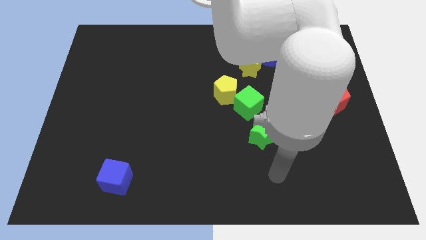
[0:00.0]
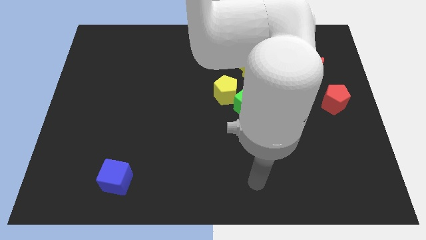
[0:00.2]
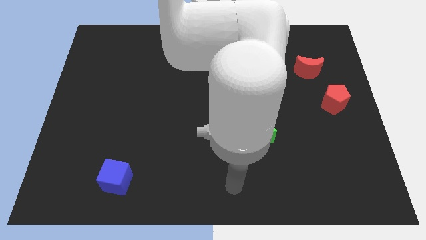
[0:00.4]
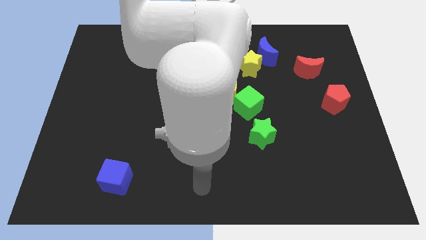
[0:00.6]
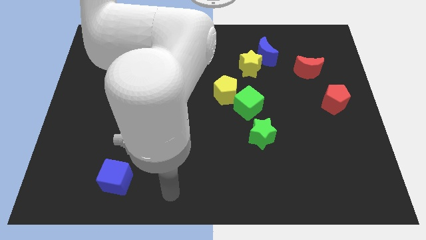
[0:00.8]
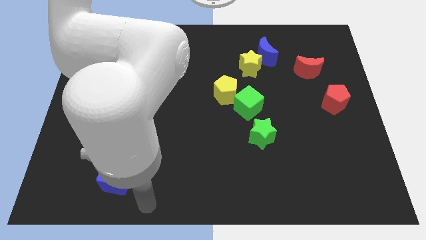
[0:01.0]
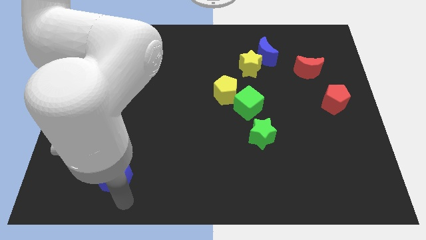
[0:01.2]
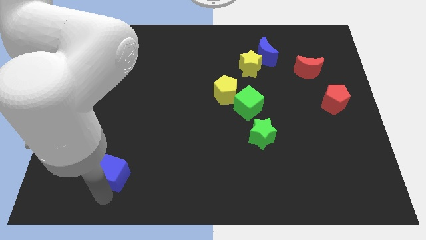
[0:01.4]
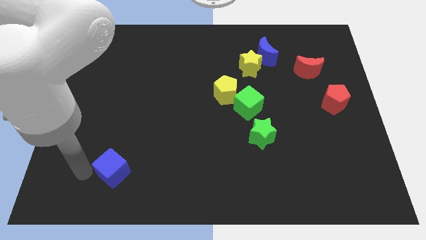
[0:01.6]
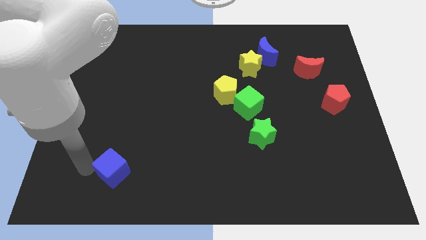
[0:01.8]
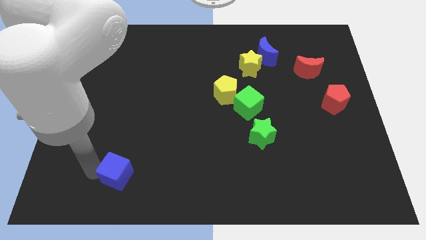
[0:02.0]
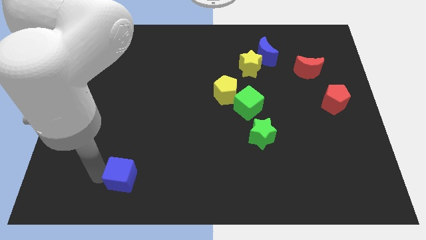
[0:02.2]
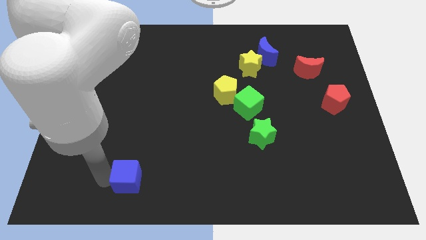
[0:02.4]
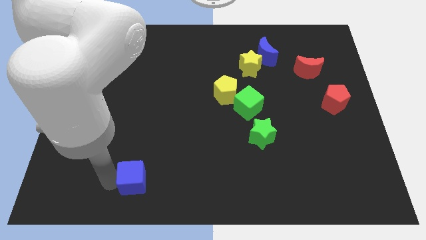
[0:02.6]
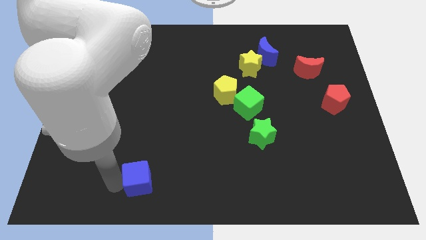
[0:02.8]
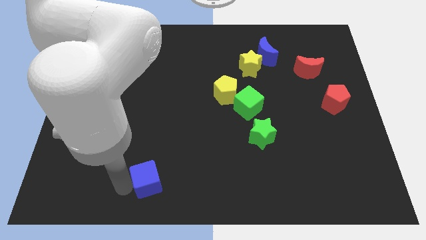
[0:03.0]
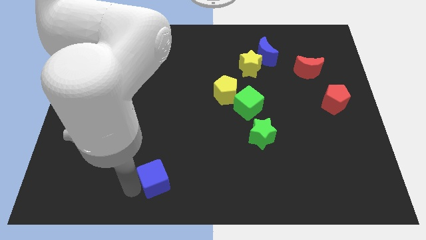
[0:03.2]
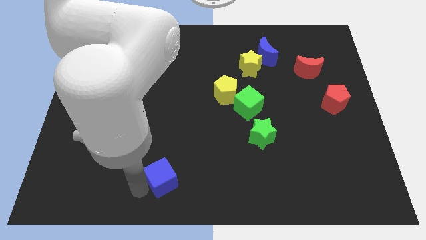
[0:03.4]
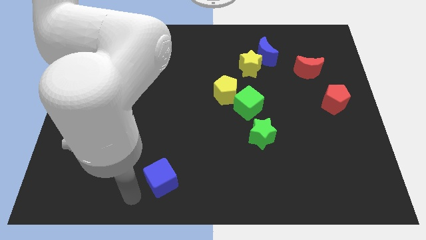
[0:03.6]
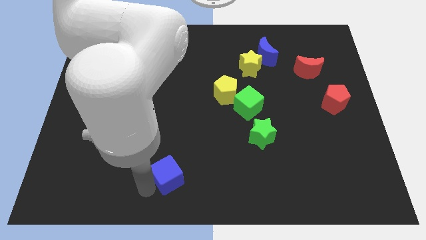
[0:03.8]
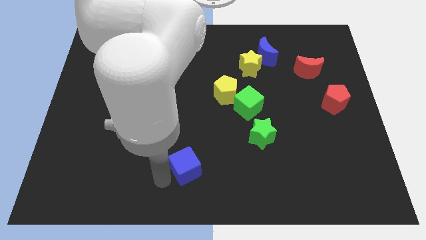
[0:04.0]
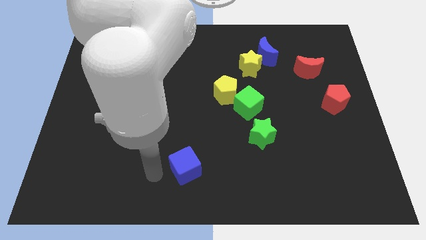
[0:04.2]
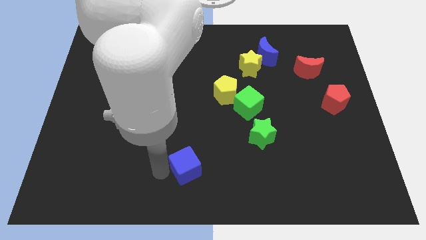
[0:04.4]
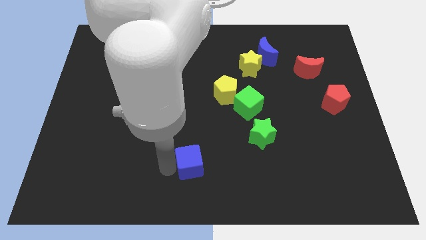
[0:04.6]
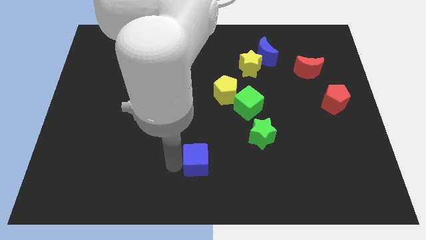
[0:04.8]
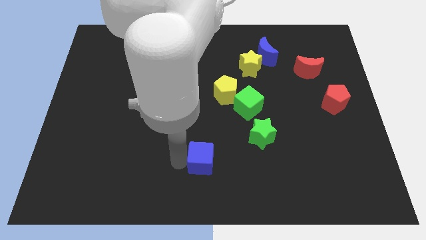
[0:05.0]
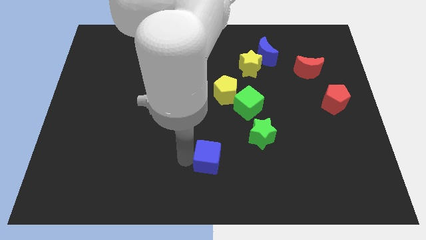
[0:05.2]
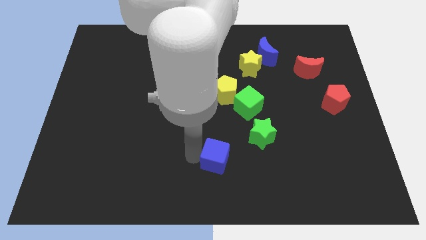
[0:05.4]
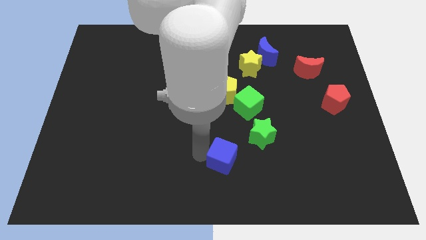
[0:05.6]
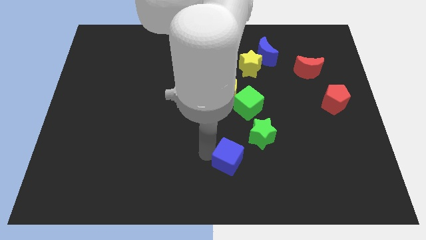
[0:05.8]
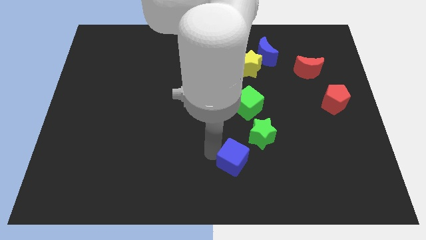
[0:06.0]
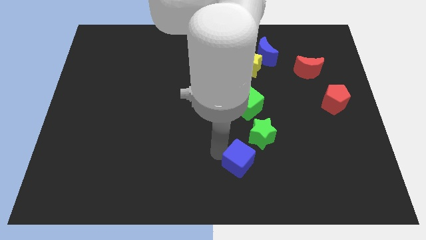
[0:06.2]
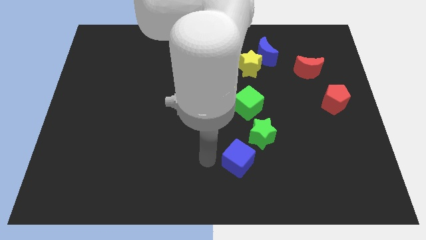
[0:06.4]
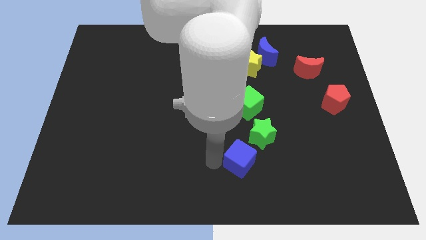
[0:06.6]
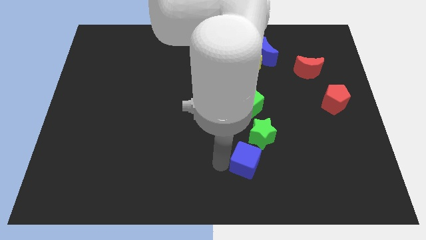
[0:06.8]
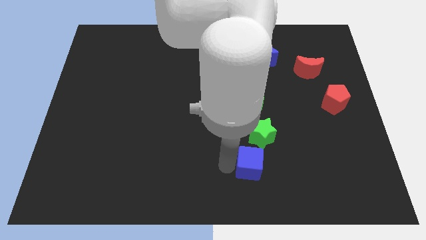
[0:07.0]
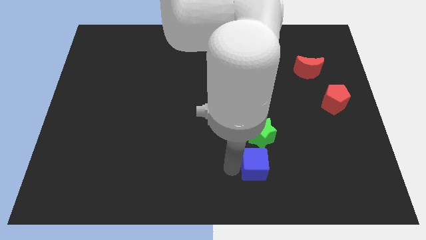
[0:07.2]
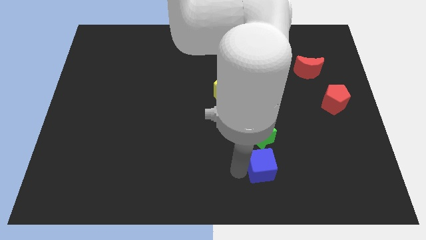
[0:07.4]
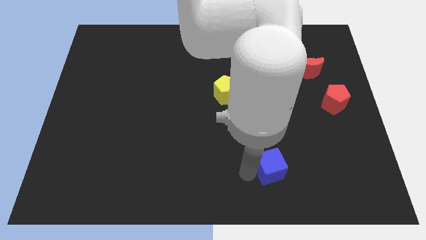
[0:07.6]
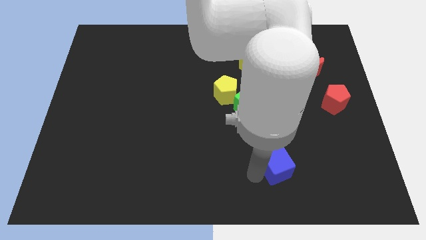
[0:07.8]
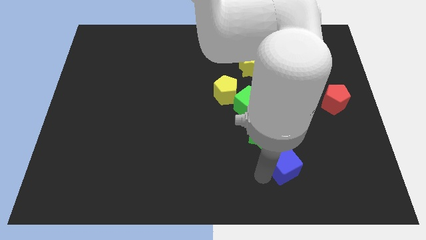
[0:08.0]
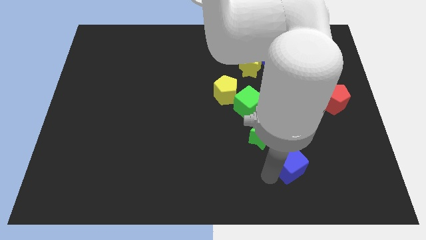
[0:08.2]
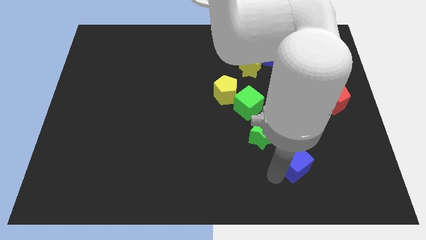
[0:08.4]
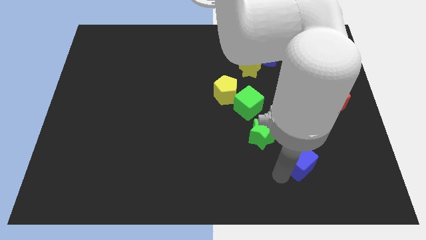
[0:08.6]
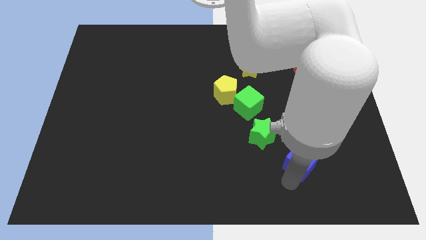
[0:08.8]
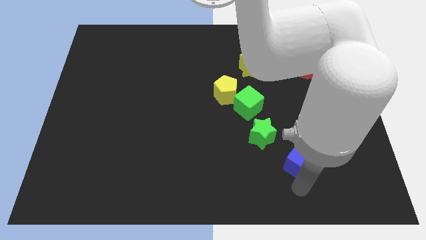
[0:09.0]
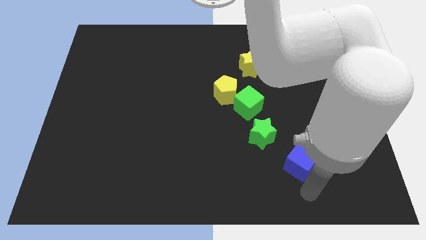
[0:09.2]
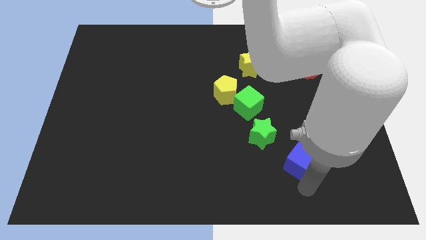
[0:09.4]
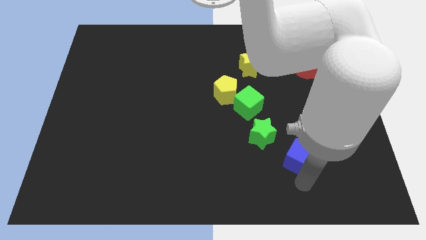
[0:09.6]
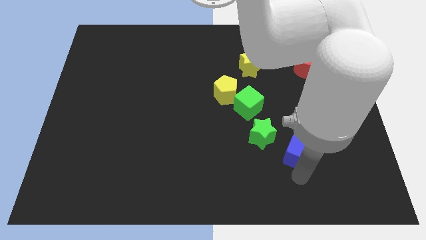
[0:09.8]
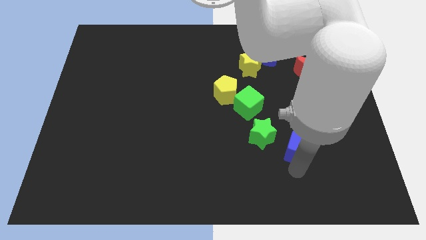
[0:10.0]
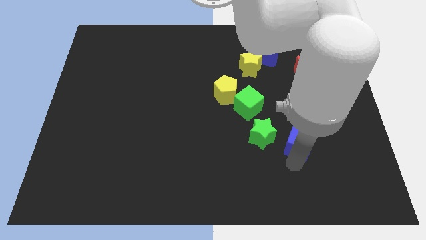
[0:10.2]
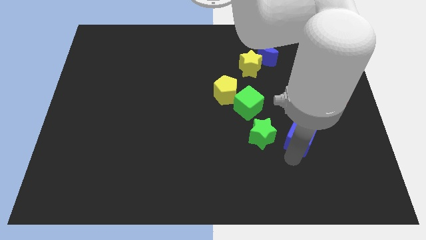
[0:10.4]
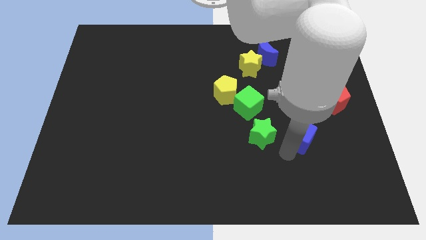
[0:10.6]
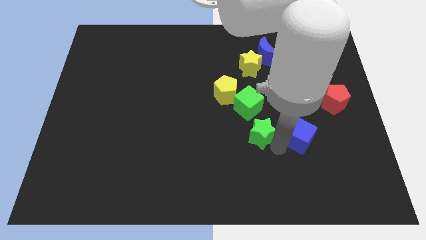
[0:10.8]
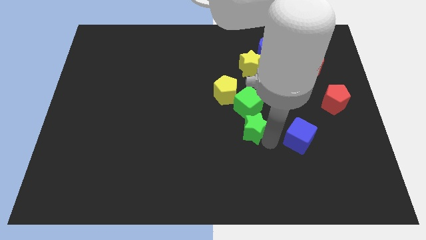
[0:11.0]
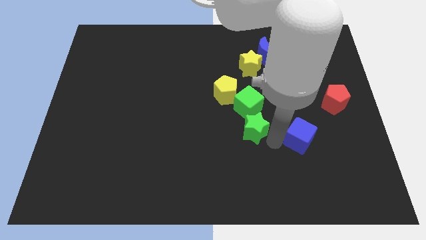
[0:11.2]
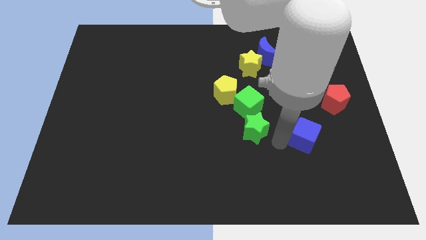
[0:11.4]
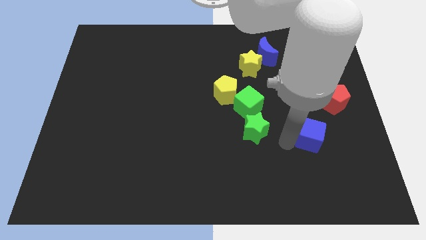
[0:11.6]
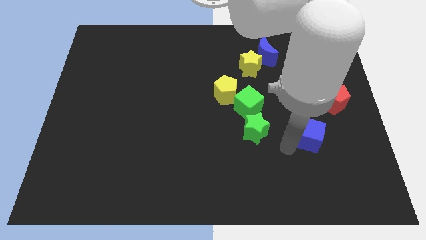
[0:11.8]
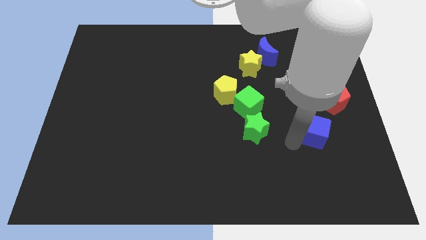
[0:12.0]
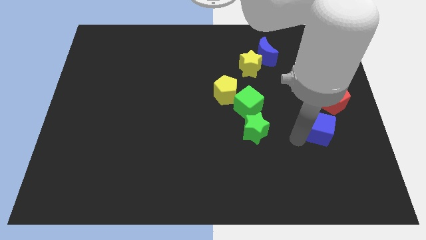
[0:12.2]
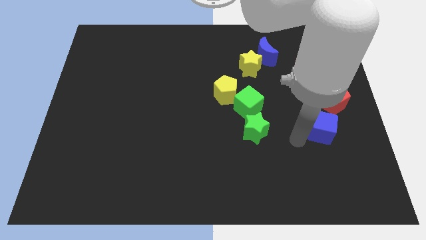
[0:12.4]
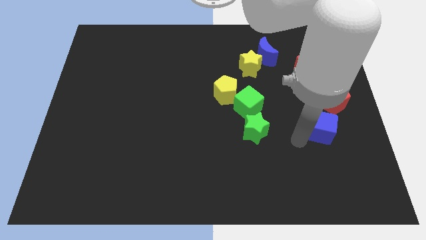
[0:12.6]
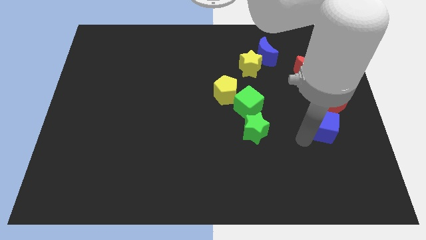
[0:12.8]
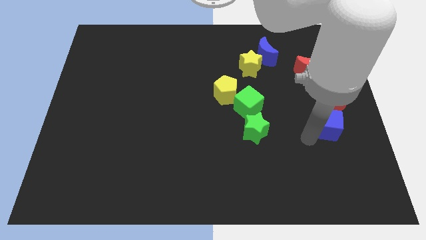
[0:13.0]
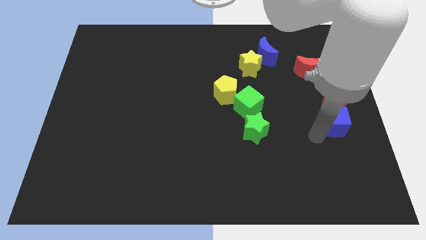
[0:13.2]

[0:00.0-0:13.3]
slide the blue cube to the center right
